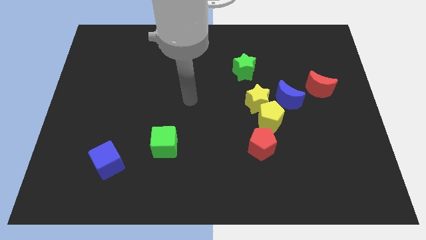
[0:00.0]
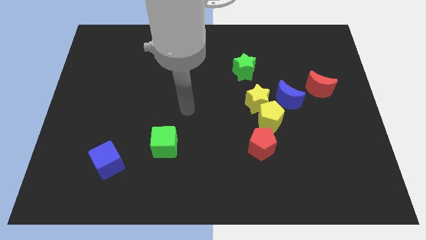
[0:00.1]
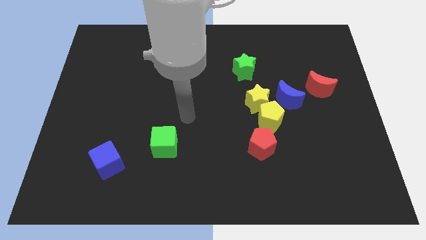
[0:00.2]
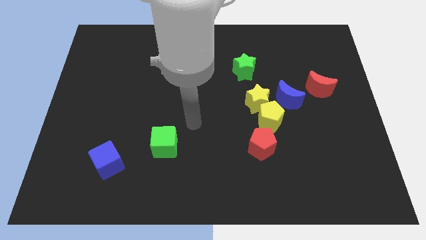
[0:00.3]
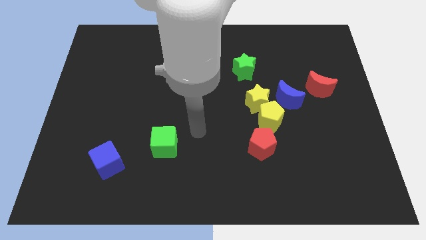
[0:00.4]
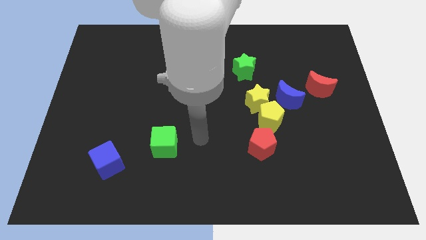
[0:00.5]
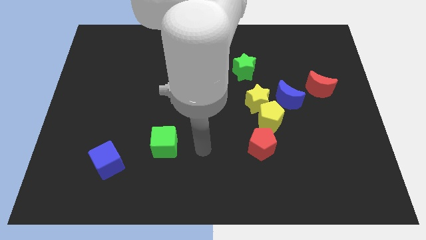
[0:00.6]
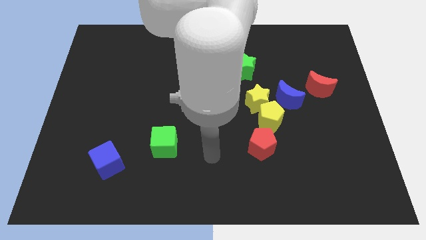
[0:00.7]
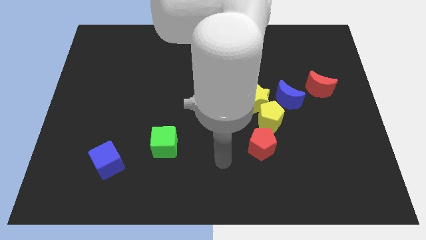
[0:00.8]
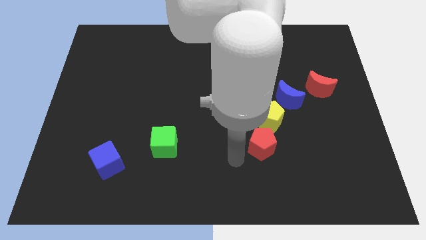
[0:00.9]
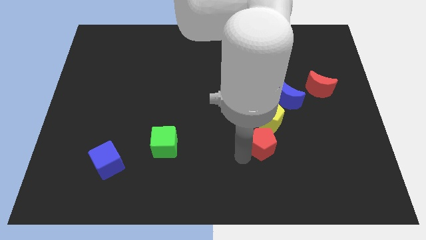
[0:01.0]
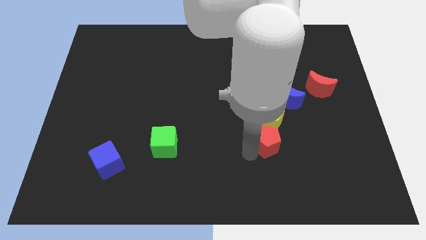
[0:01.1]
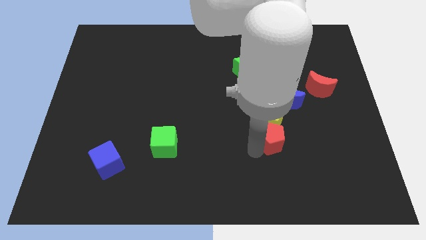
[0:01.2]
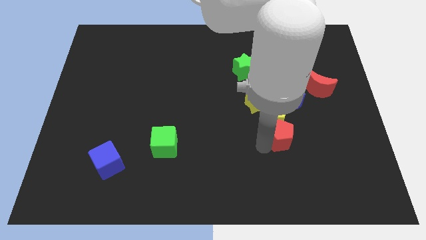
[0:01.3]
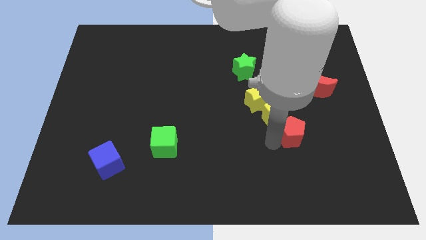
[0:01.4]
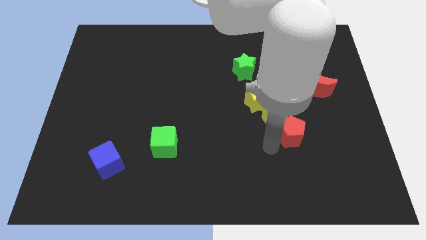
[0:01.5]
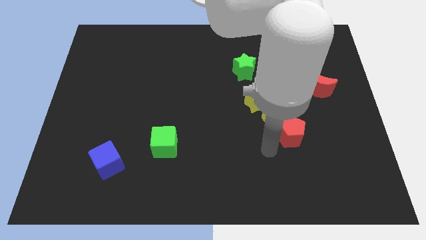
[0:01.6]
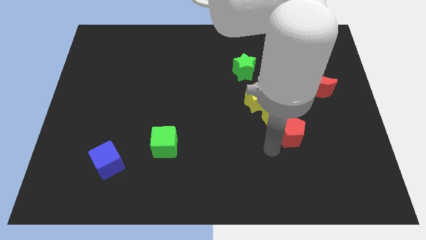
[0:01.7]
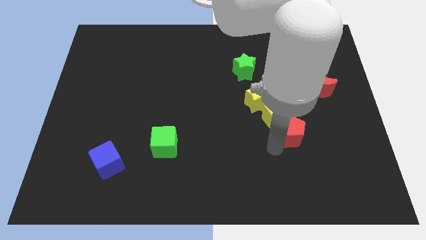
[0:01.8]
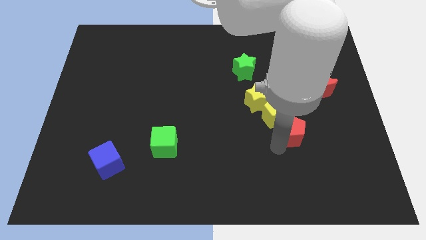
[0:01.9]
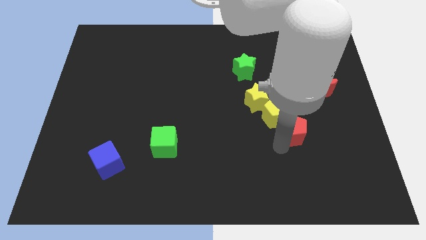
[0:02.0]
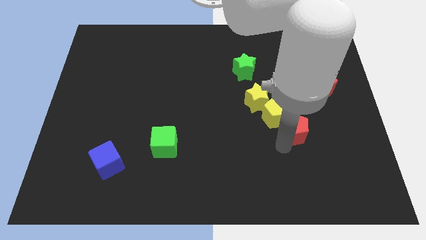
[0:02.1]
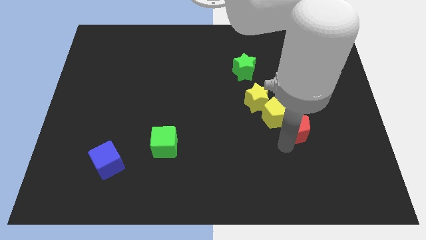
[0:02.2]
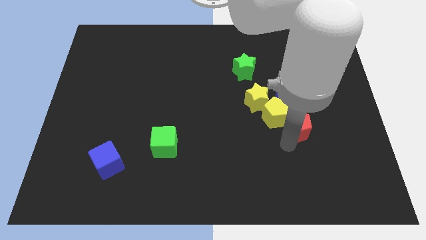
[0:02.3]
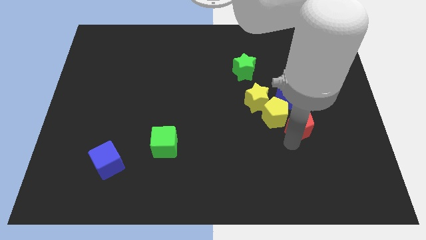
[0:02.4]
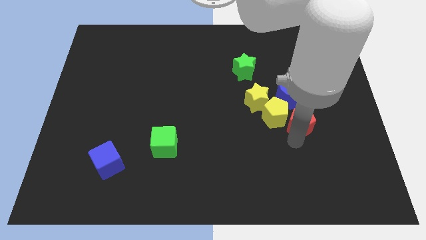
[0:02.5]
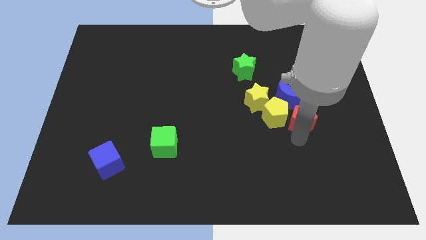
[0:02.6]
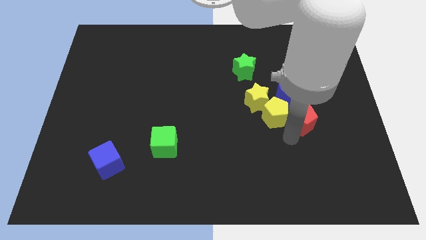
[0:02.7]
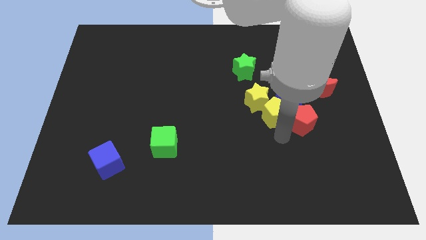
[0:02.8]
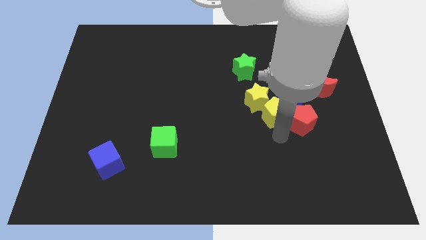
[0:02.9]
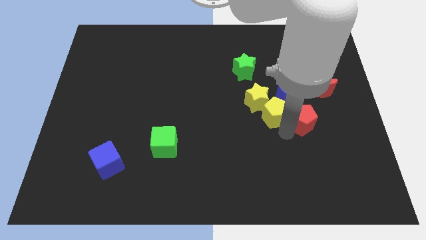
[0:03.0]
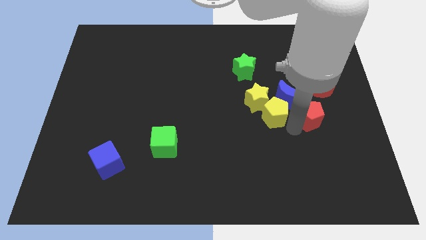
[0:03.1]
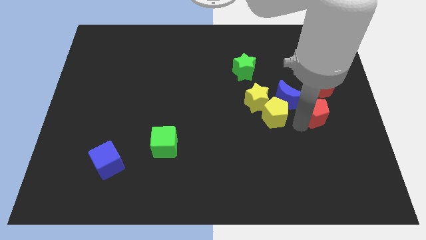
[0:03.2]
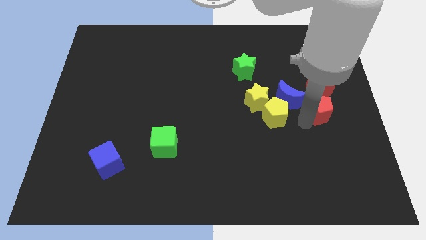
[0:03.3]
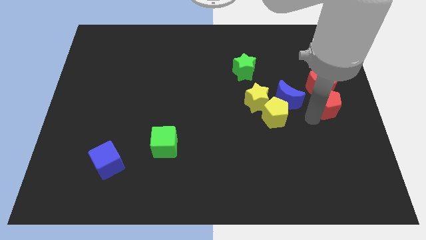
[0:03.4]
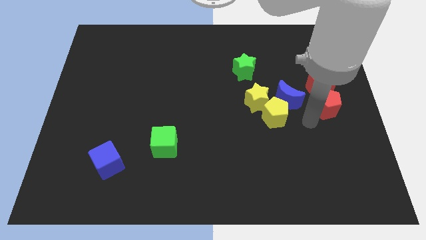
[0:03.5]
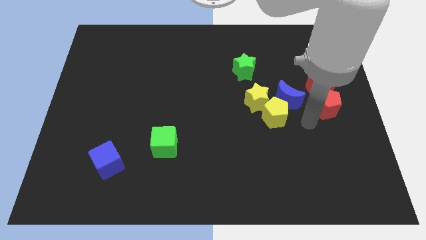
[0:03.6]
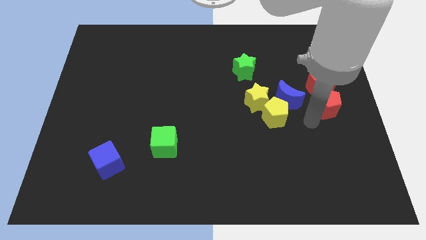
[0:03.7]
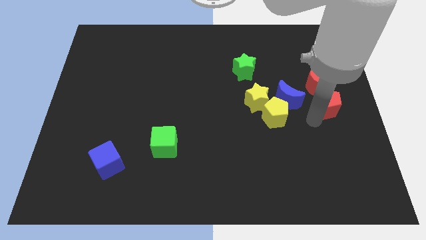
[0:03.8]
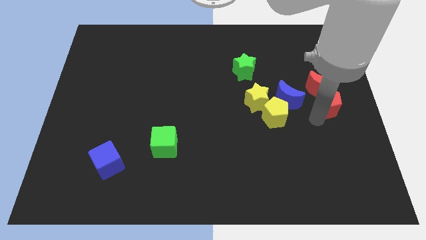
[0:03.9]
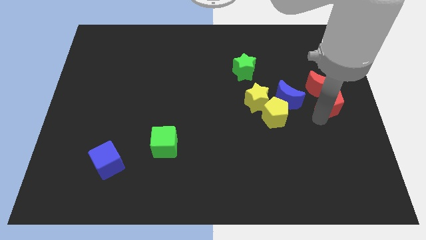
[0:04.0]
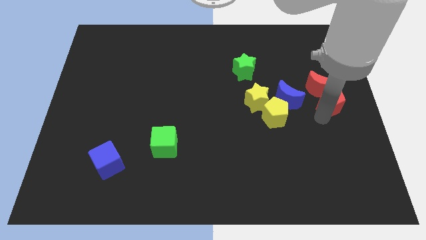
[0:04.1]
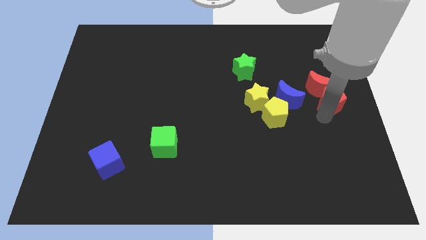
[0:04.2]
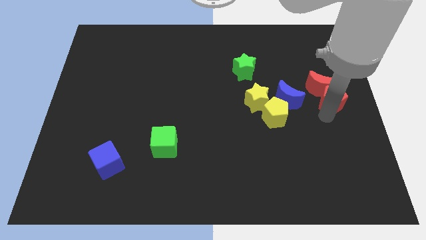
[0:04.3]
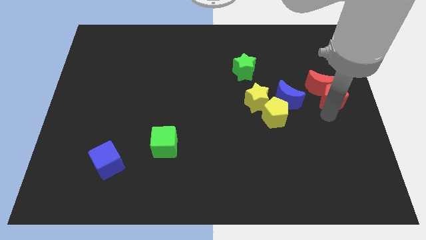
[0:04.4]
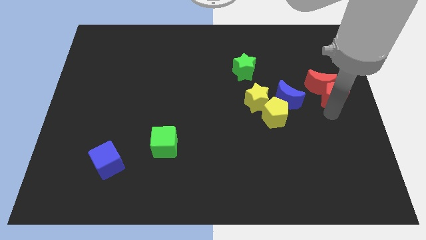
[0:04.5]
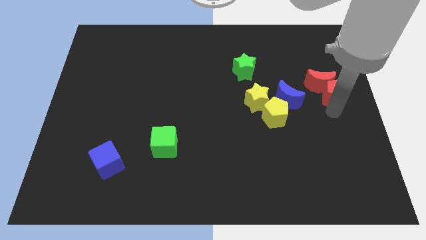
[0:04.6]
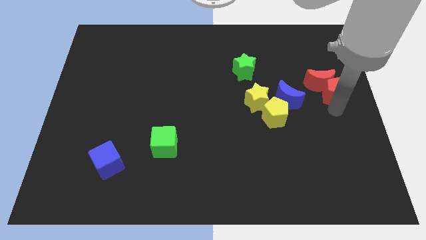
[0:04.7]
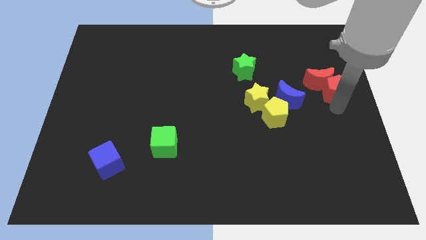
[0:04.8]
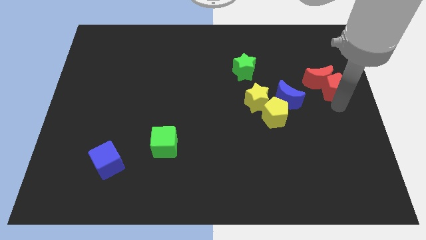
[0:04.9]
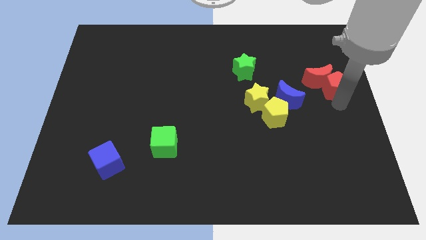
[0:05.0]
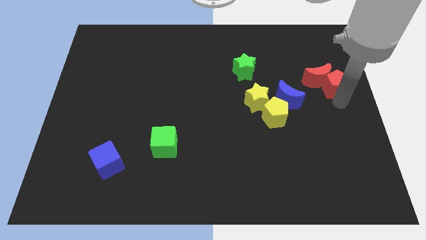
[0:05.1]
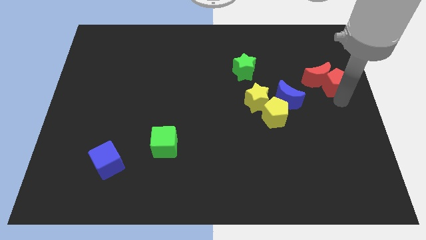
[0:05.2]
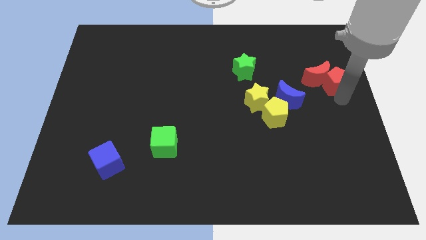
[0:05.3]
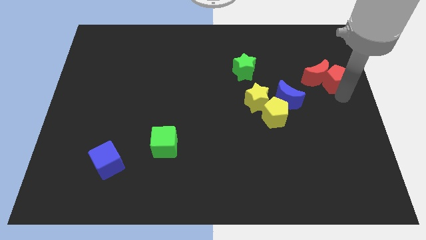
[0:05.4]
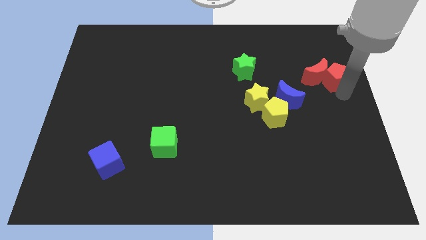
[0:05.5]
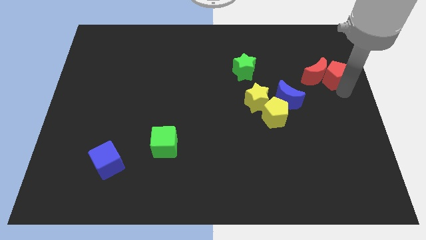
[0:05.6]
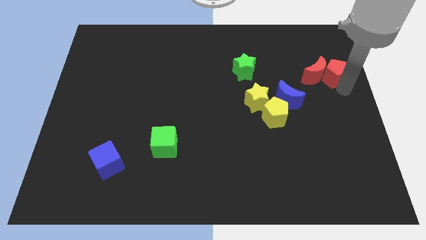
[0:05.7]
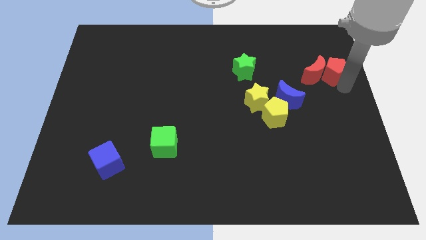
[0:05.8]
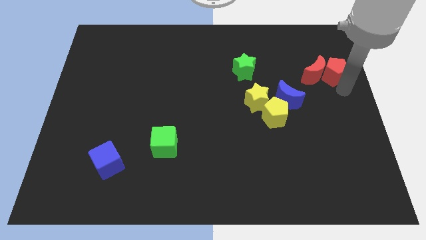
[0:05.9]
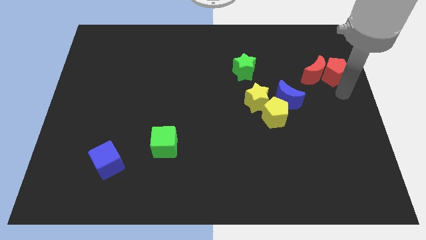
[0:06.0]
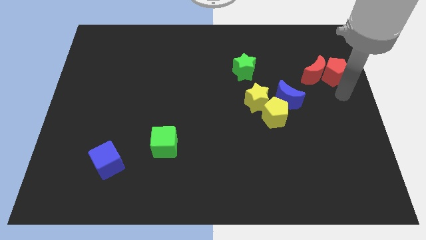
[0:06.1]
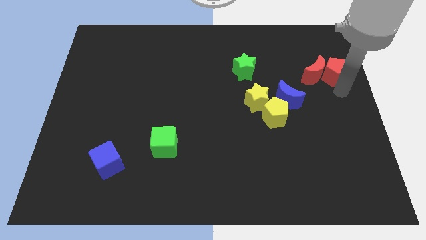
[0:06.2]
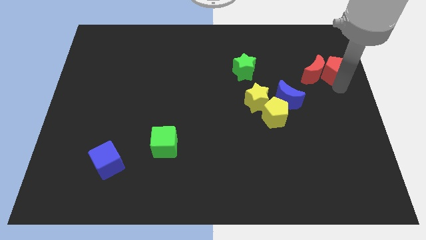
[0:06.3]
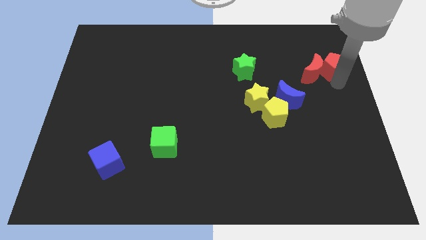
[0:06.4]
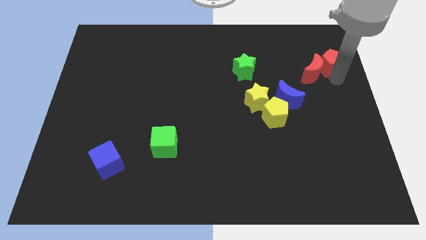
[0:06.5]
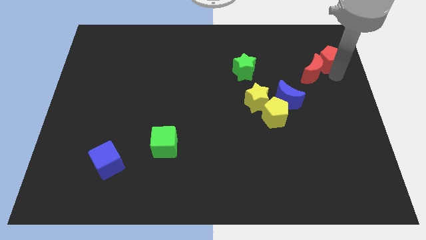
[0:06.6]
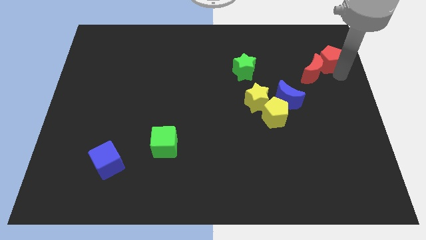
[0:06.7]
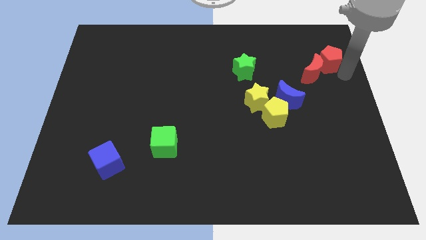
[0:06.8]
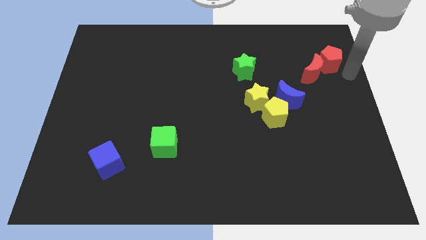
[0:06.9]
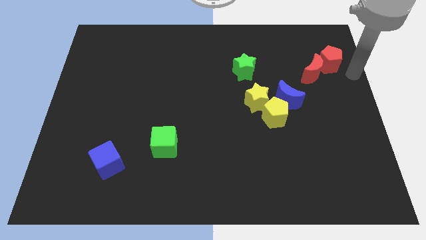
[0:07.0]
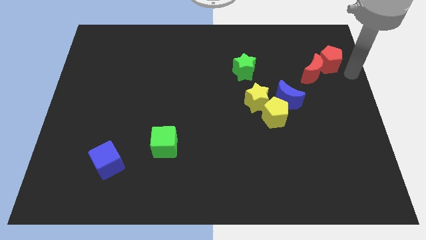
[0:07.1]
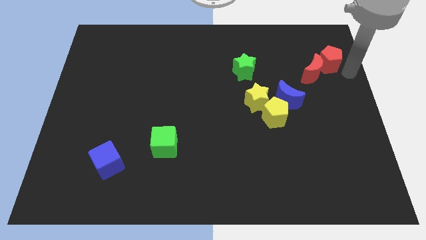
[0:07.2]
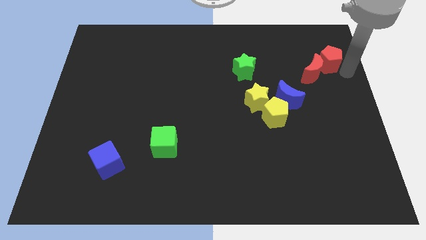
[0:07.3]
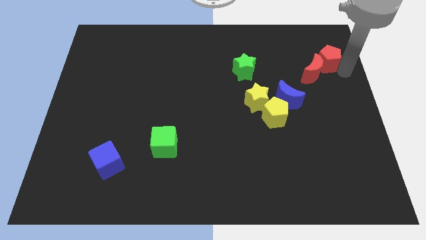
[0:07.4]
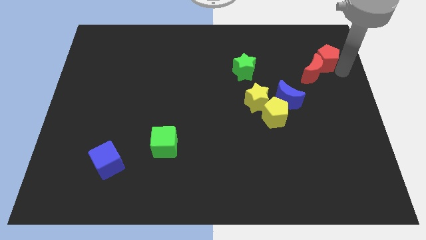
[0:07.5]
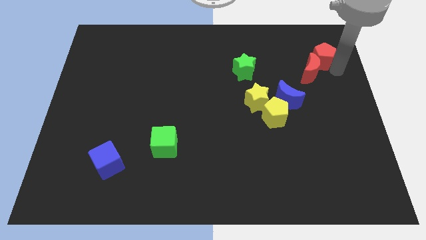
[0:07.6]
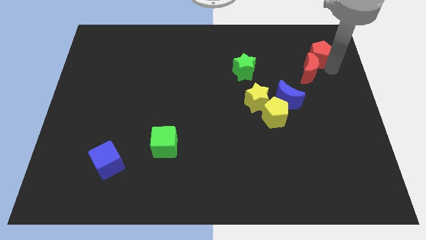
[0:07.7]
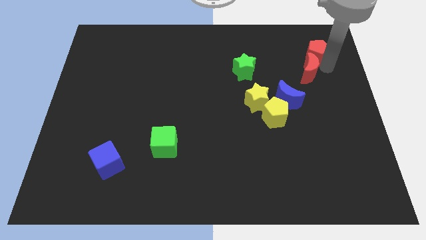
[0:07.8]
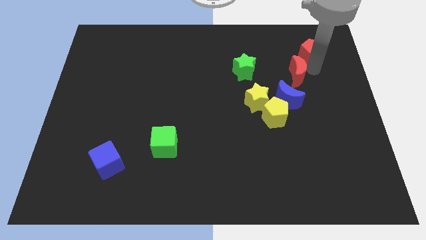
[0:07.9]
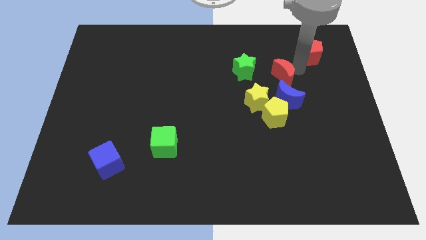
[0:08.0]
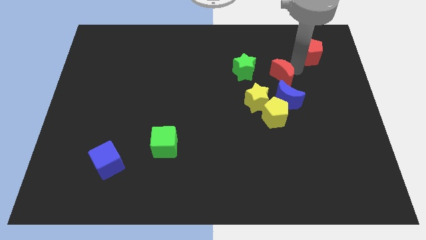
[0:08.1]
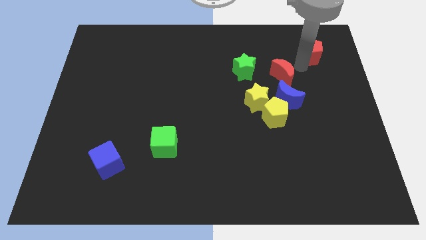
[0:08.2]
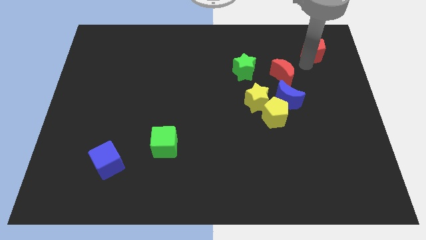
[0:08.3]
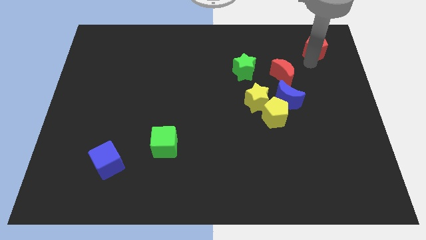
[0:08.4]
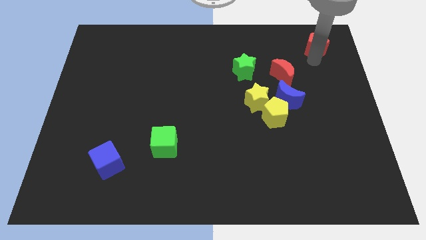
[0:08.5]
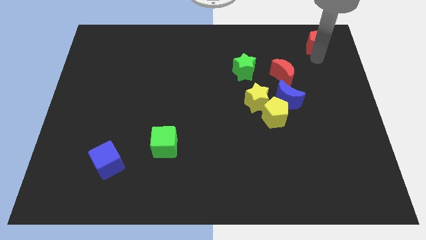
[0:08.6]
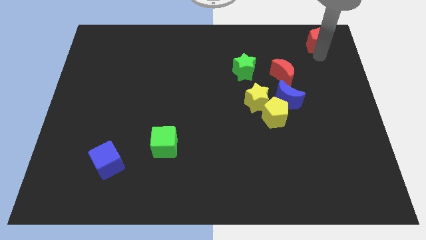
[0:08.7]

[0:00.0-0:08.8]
push the red pentagon to the top right corner
